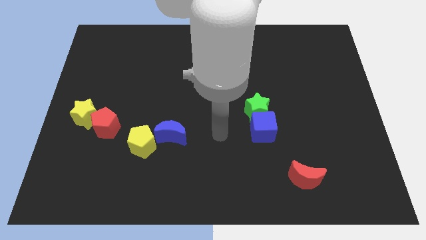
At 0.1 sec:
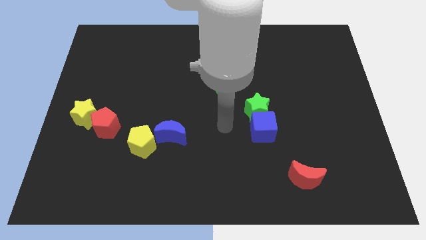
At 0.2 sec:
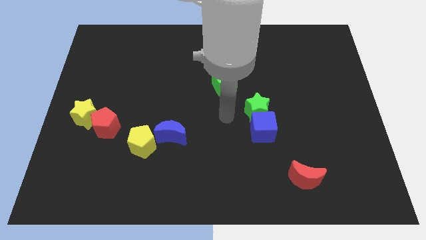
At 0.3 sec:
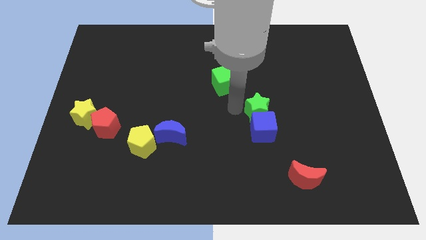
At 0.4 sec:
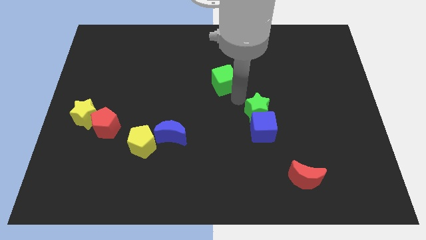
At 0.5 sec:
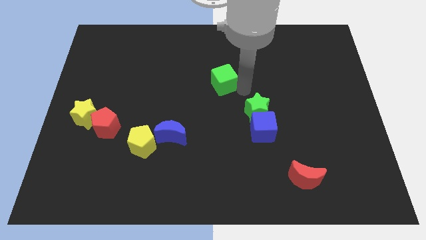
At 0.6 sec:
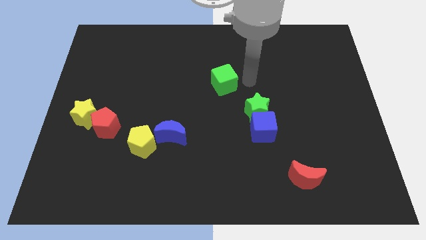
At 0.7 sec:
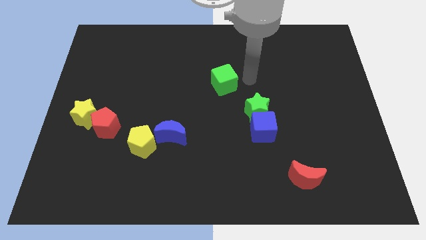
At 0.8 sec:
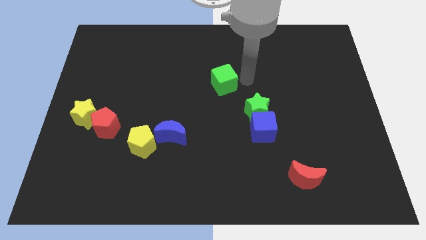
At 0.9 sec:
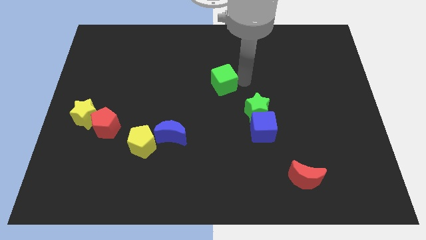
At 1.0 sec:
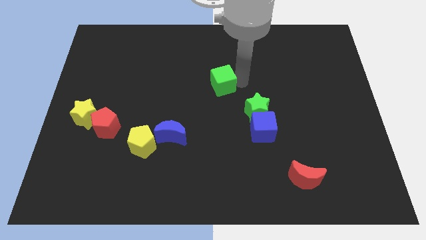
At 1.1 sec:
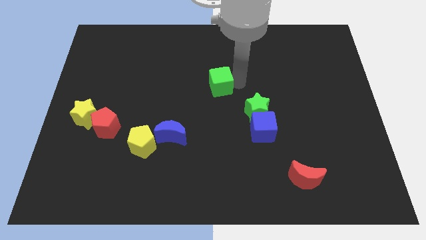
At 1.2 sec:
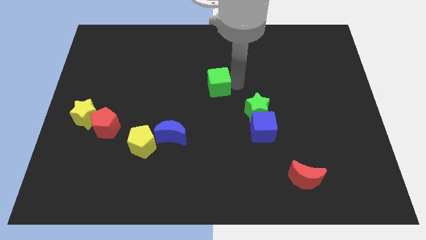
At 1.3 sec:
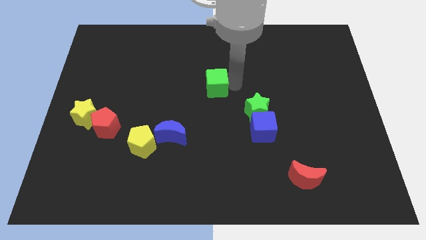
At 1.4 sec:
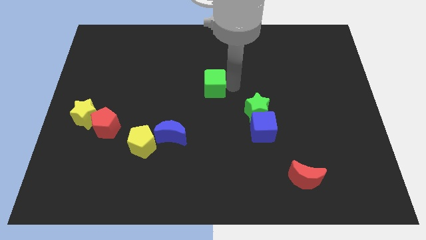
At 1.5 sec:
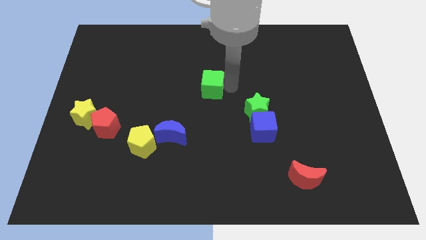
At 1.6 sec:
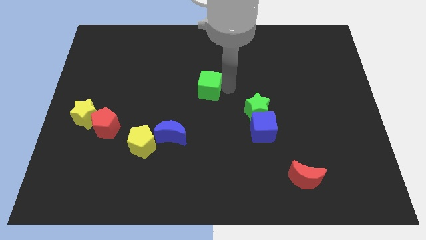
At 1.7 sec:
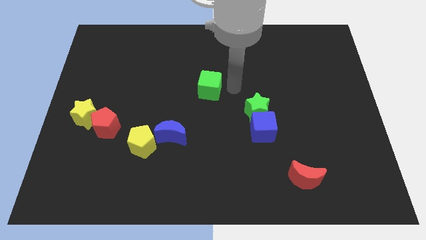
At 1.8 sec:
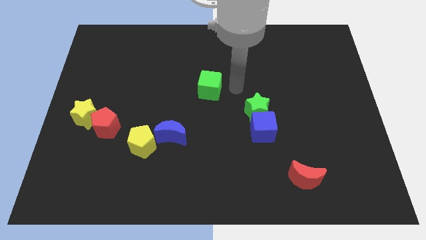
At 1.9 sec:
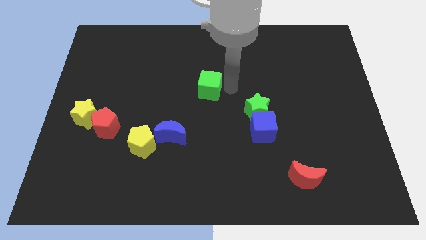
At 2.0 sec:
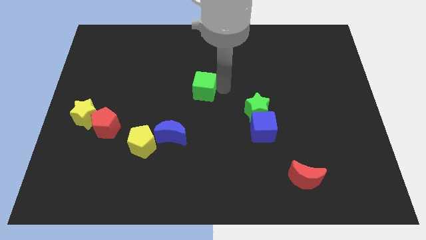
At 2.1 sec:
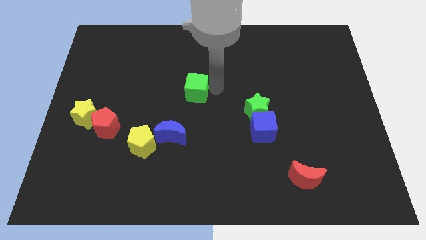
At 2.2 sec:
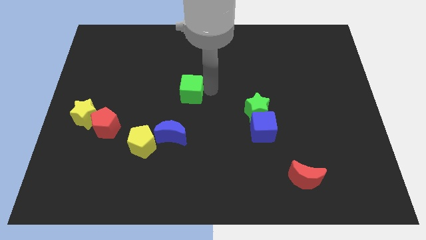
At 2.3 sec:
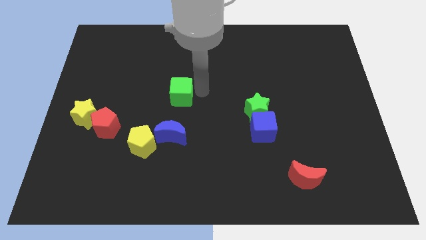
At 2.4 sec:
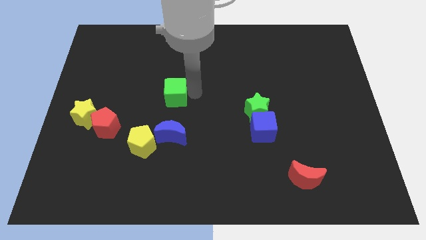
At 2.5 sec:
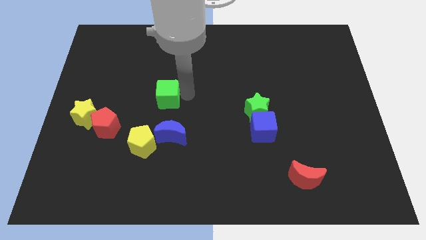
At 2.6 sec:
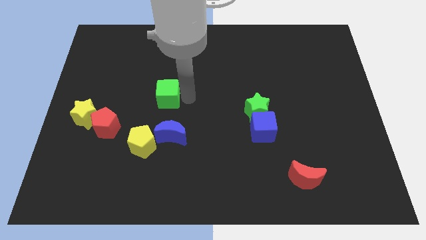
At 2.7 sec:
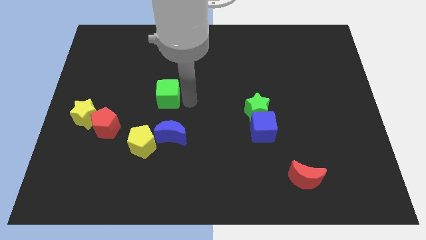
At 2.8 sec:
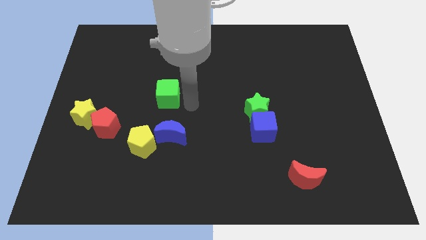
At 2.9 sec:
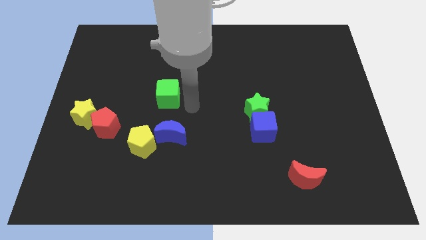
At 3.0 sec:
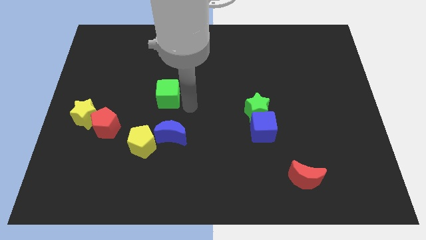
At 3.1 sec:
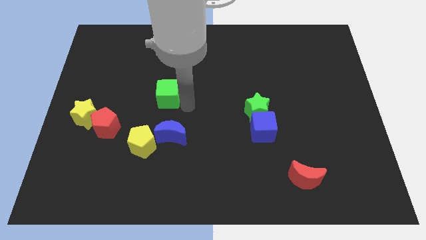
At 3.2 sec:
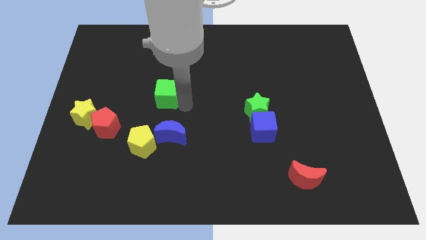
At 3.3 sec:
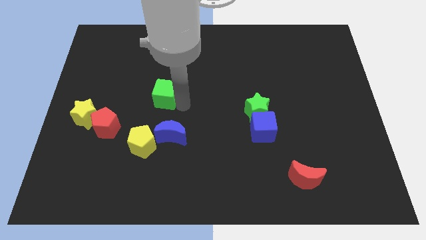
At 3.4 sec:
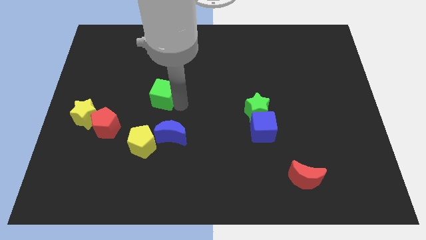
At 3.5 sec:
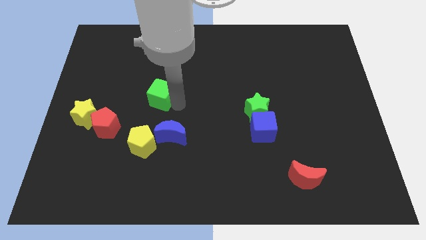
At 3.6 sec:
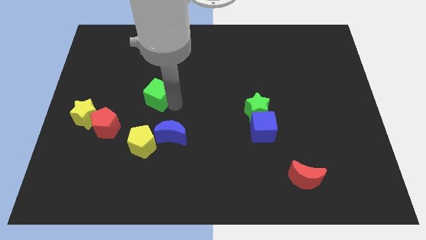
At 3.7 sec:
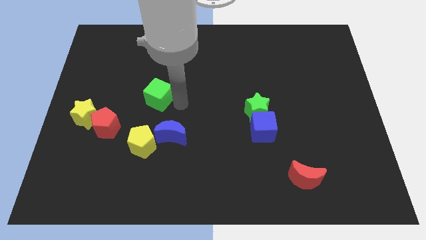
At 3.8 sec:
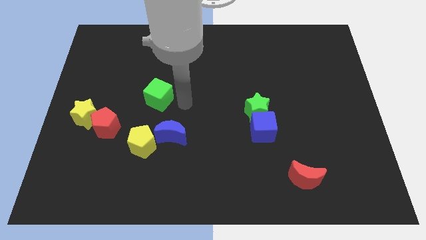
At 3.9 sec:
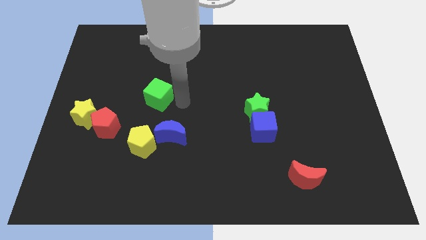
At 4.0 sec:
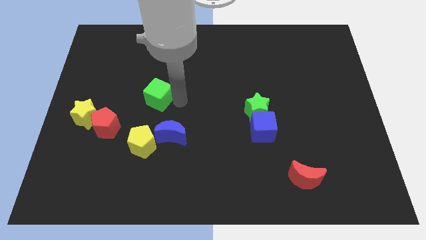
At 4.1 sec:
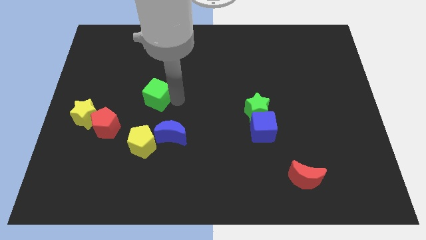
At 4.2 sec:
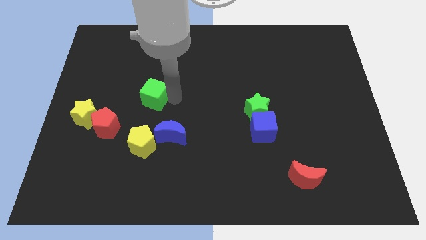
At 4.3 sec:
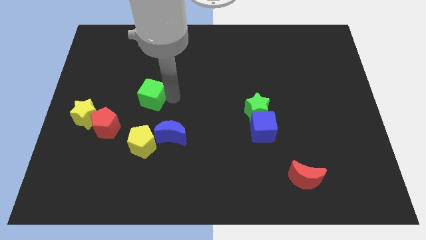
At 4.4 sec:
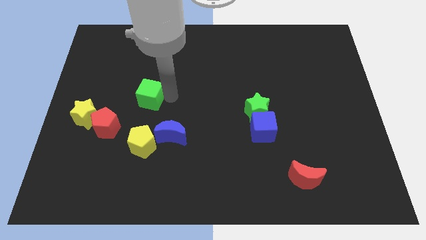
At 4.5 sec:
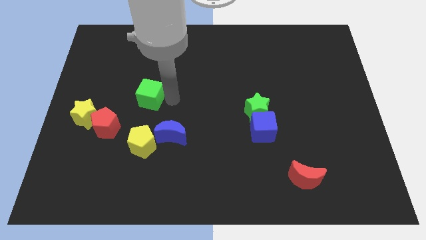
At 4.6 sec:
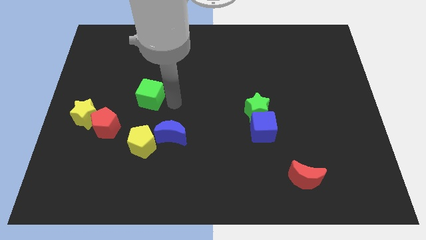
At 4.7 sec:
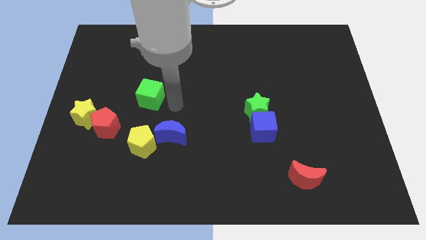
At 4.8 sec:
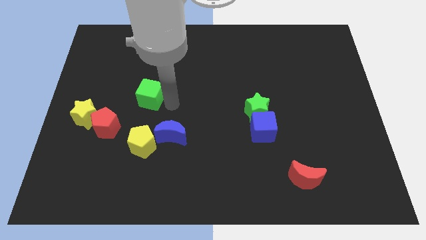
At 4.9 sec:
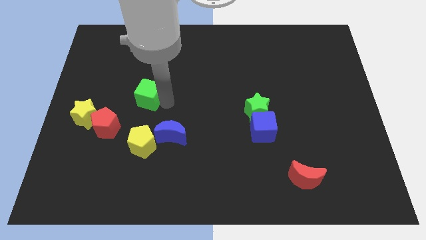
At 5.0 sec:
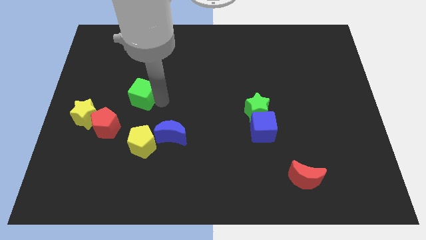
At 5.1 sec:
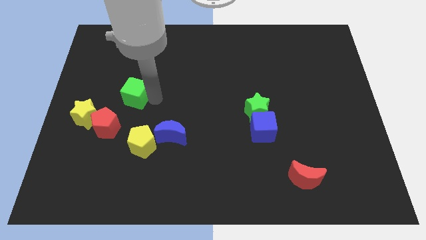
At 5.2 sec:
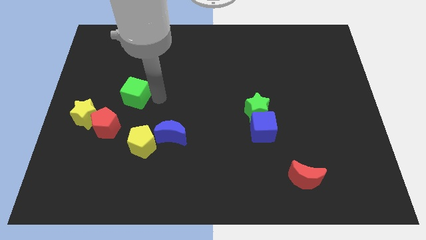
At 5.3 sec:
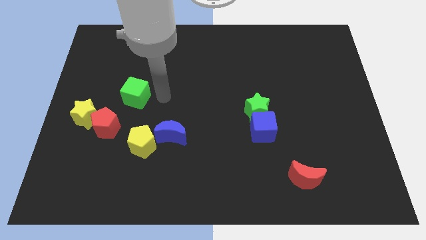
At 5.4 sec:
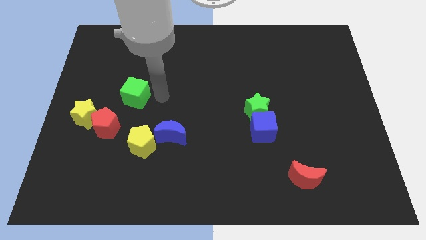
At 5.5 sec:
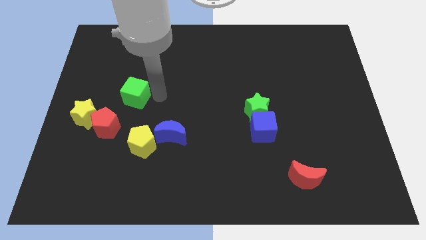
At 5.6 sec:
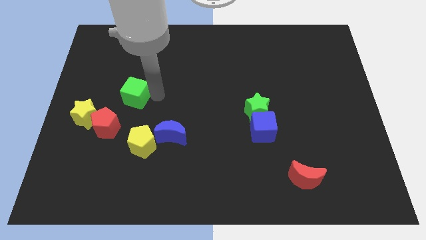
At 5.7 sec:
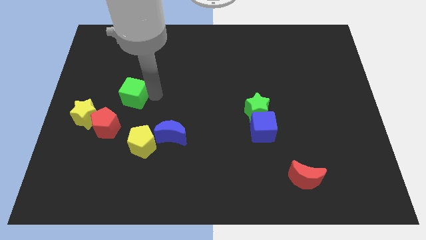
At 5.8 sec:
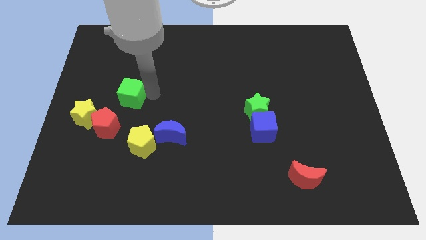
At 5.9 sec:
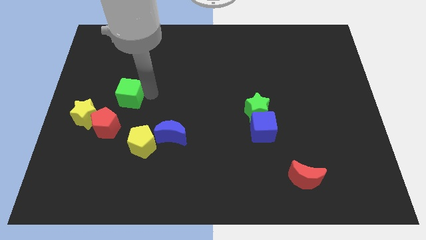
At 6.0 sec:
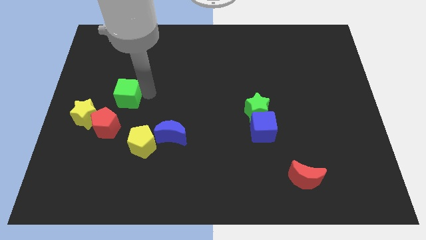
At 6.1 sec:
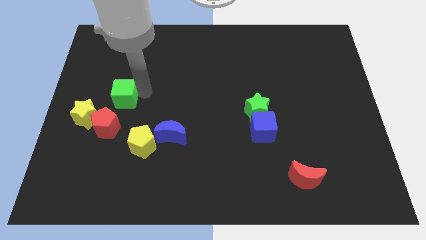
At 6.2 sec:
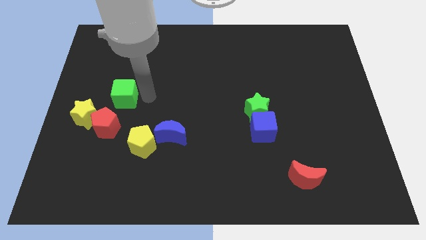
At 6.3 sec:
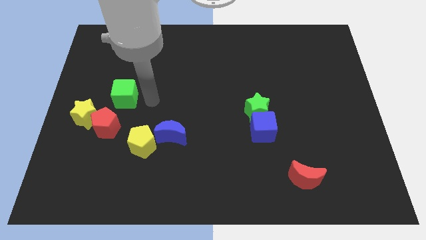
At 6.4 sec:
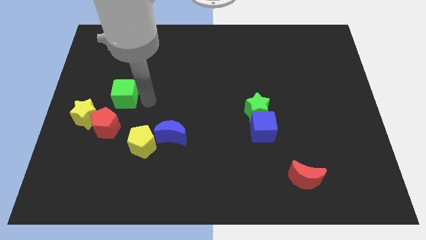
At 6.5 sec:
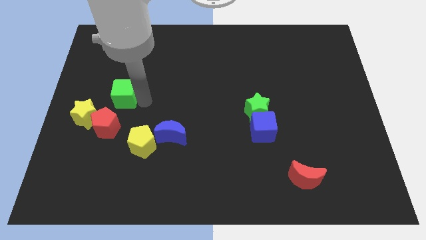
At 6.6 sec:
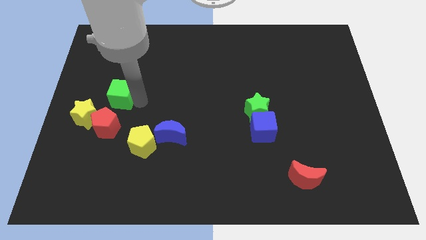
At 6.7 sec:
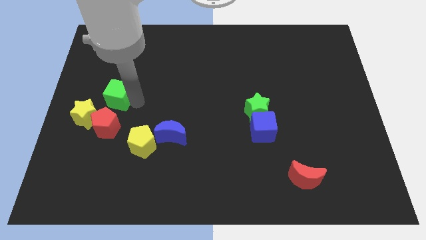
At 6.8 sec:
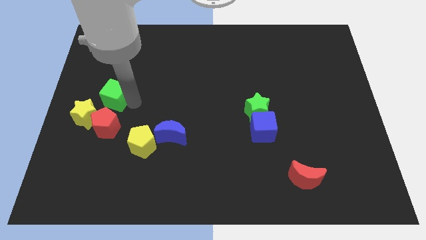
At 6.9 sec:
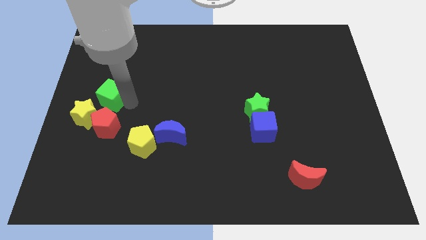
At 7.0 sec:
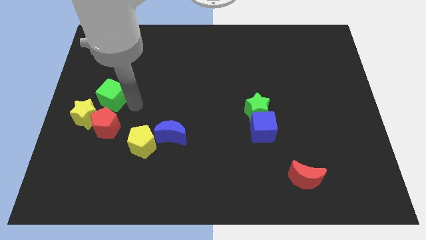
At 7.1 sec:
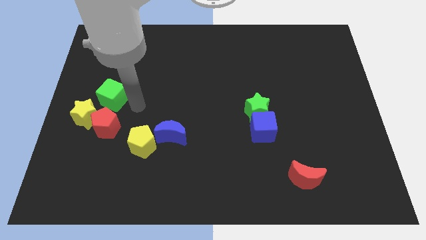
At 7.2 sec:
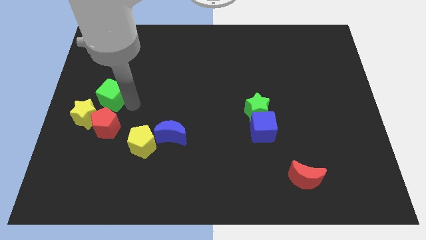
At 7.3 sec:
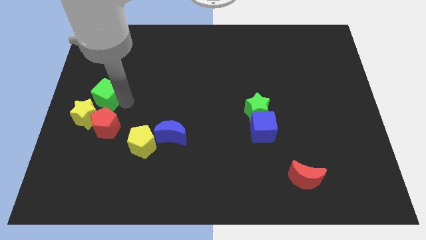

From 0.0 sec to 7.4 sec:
slide the green cube to the left side of the board
